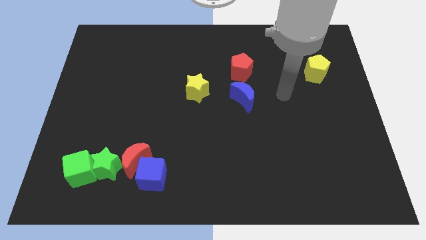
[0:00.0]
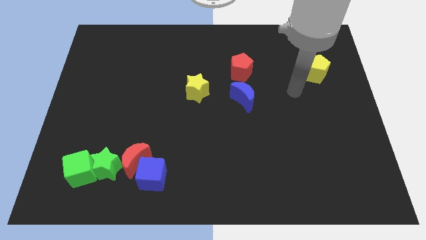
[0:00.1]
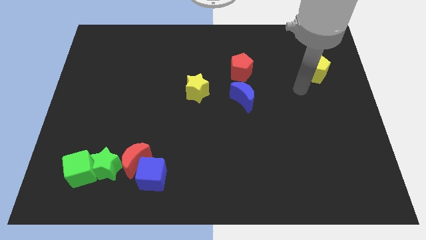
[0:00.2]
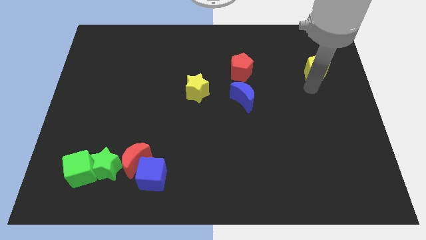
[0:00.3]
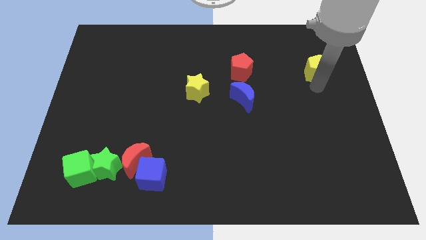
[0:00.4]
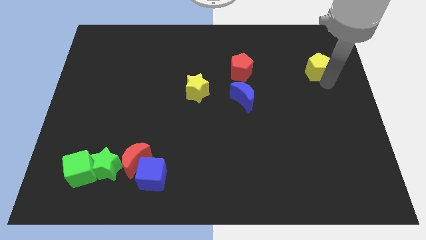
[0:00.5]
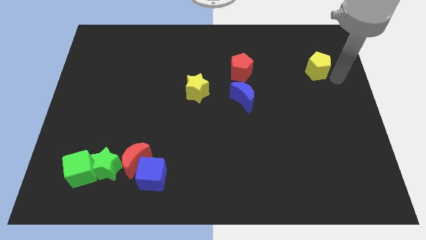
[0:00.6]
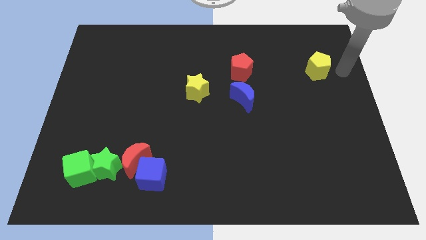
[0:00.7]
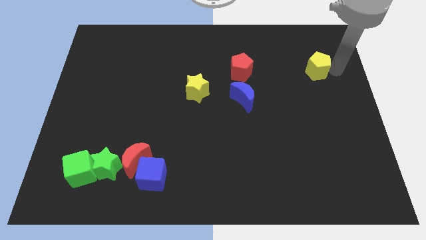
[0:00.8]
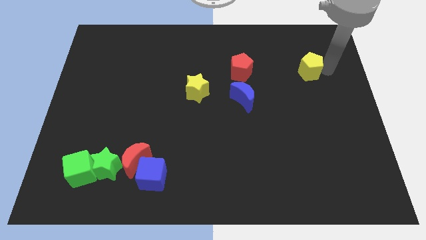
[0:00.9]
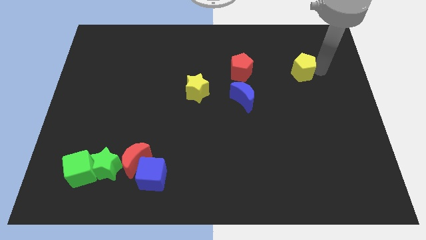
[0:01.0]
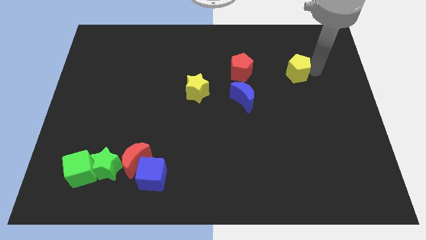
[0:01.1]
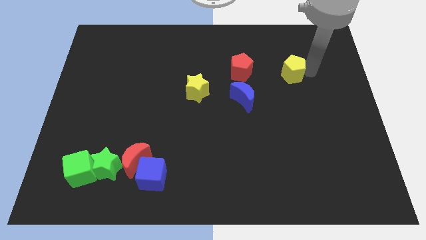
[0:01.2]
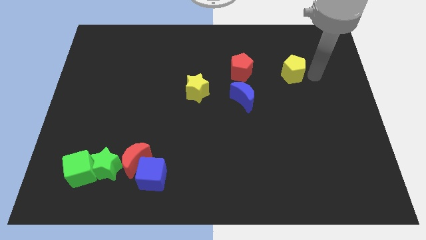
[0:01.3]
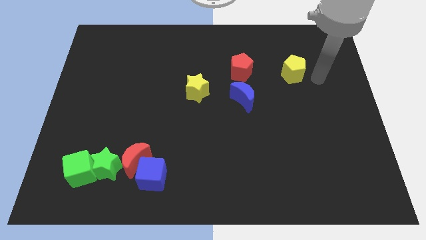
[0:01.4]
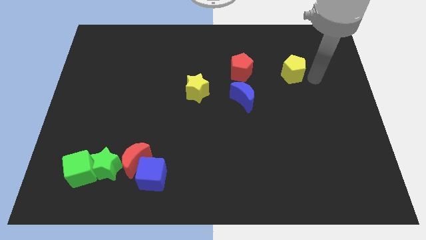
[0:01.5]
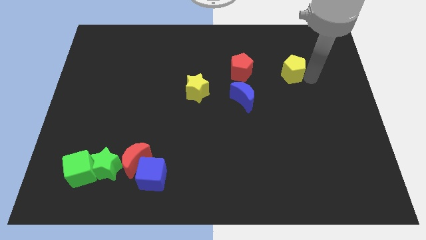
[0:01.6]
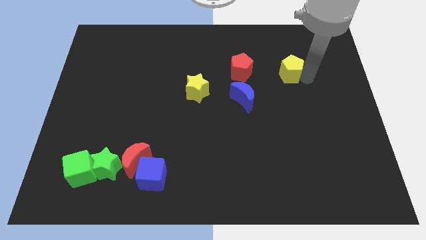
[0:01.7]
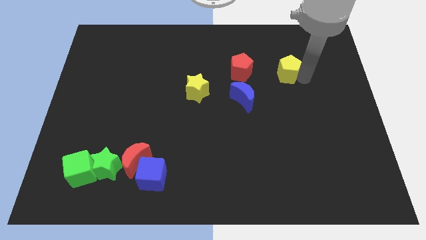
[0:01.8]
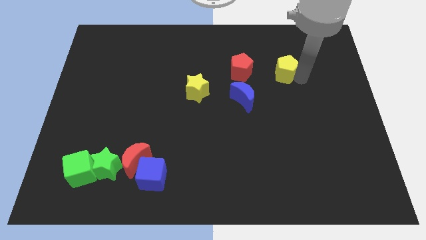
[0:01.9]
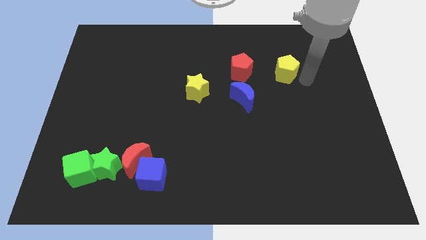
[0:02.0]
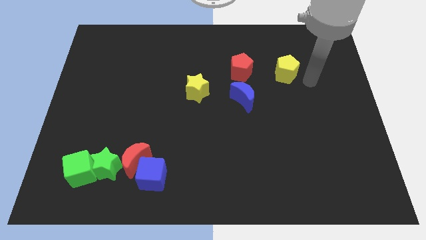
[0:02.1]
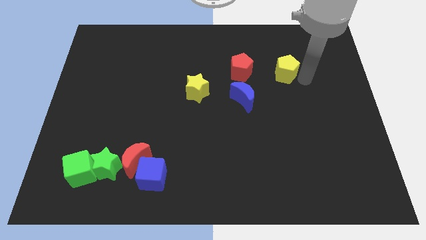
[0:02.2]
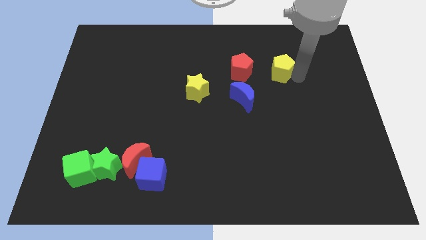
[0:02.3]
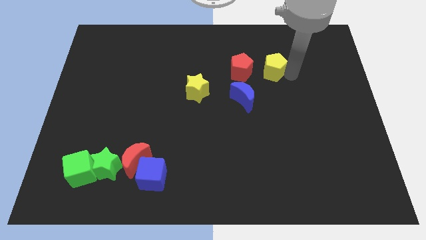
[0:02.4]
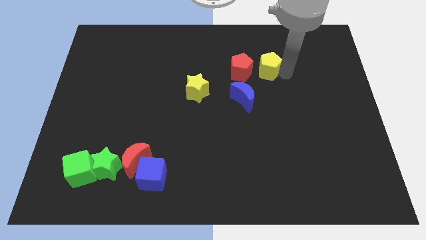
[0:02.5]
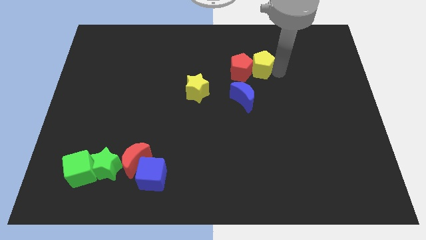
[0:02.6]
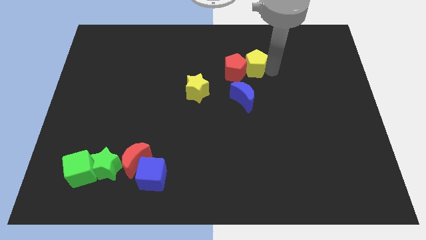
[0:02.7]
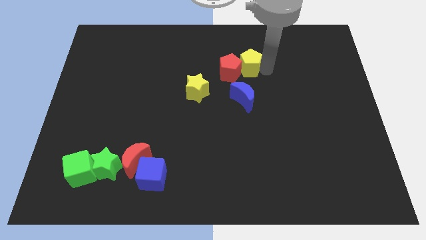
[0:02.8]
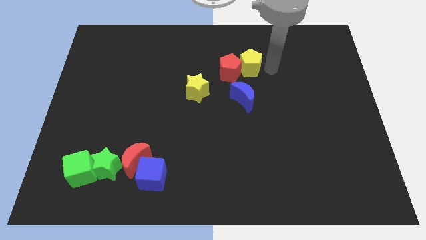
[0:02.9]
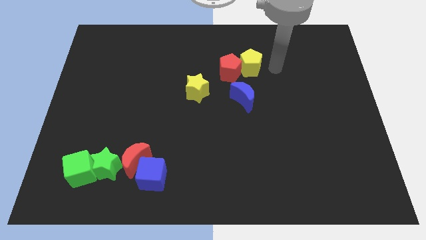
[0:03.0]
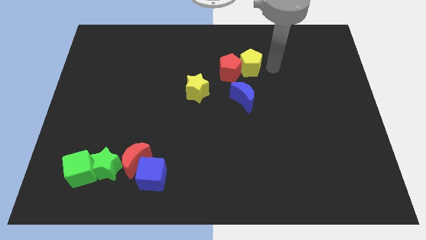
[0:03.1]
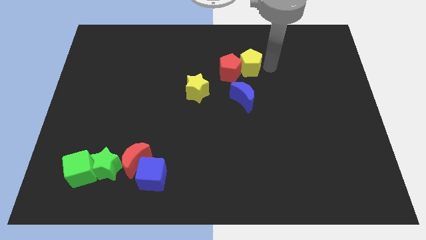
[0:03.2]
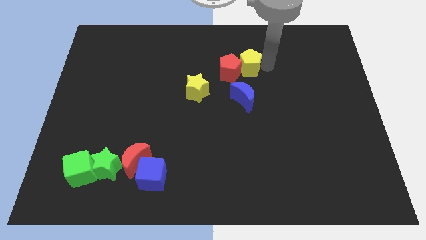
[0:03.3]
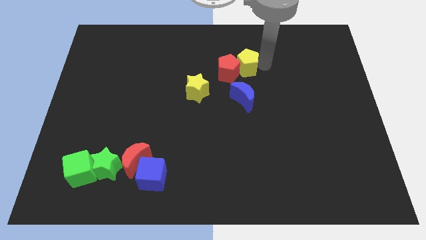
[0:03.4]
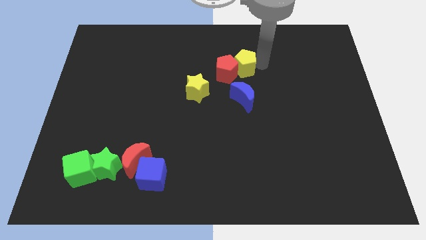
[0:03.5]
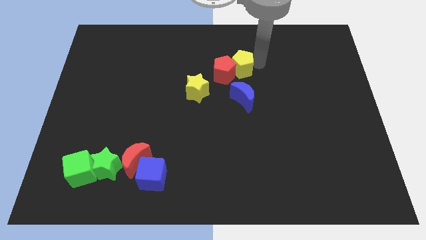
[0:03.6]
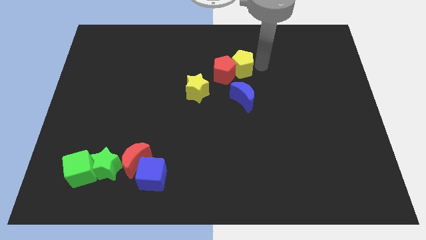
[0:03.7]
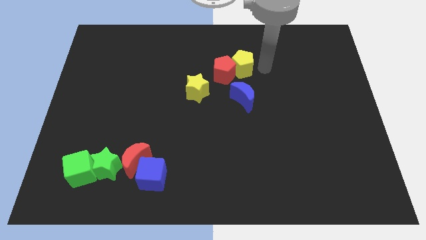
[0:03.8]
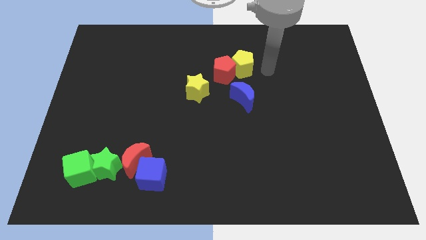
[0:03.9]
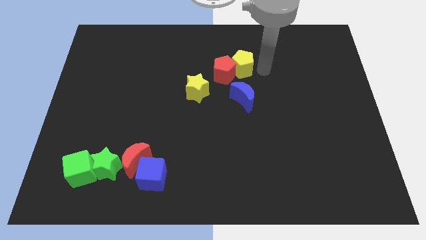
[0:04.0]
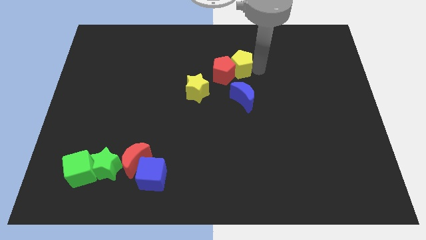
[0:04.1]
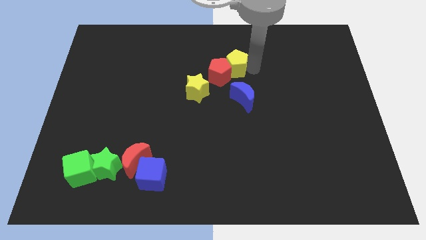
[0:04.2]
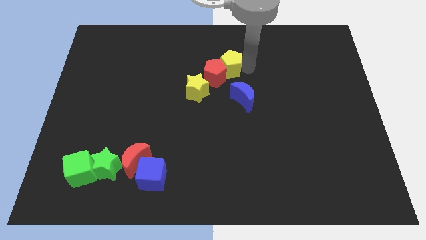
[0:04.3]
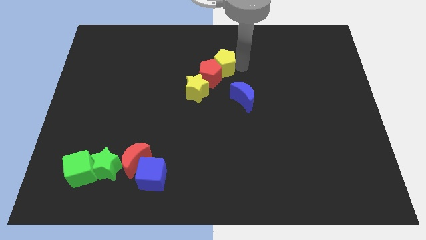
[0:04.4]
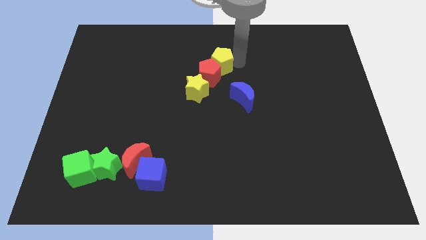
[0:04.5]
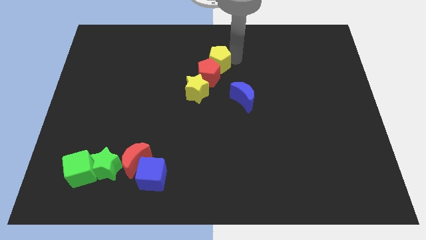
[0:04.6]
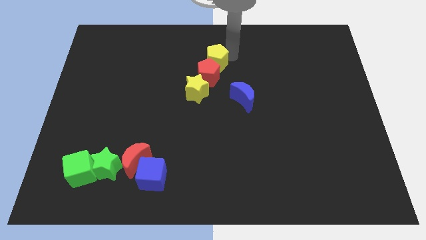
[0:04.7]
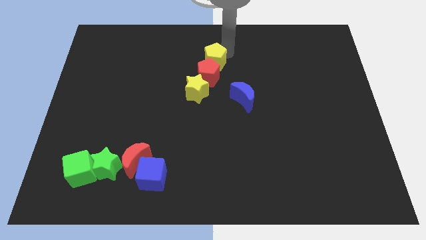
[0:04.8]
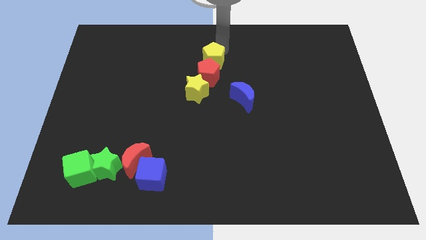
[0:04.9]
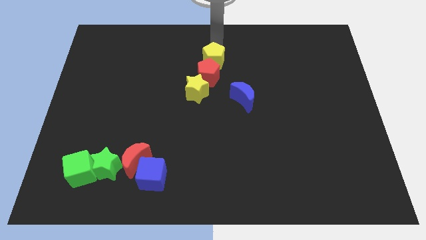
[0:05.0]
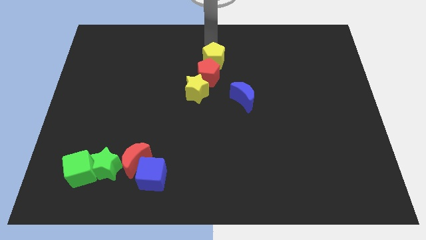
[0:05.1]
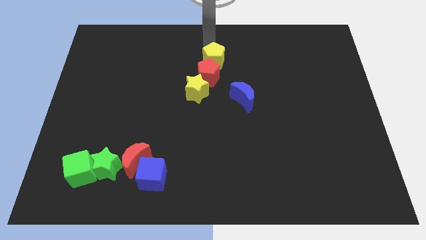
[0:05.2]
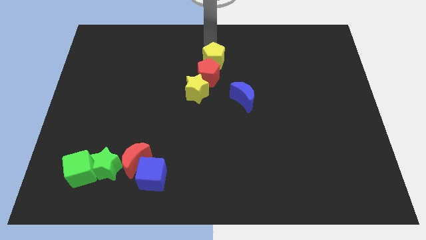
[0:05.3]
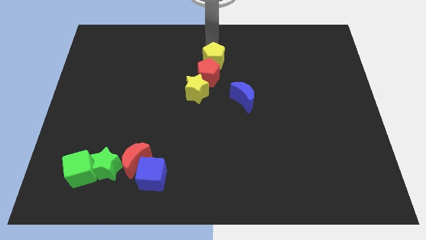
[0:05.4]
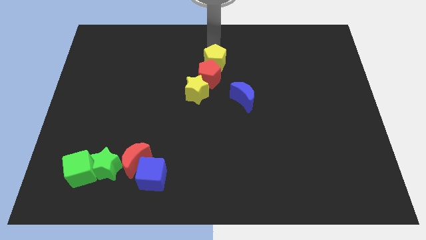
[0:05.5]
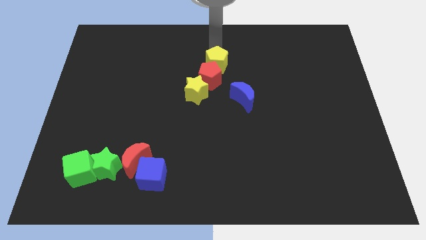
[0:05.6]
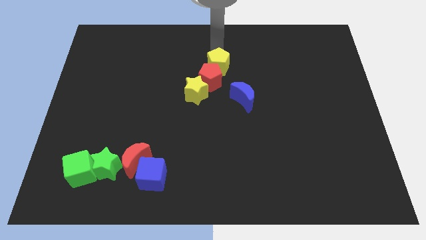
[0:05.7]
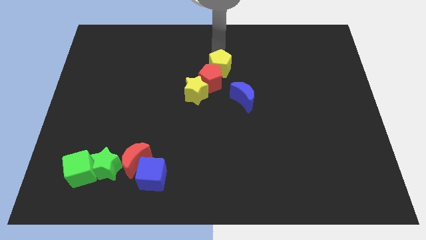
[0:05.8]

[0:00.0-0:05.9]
slide the yellow pentagon diagonally up and to the left of the blue moon
